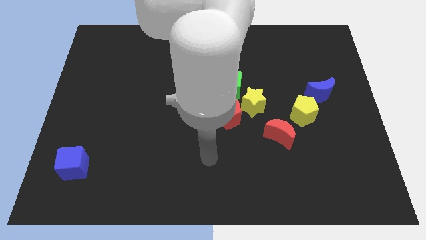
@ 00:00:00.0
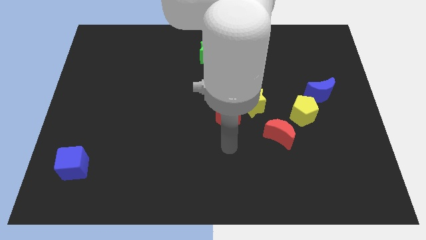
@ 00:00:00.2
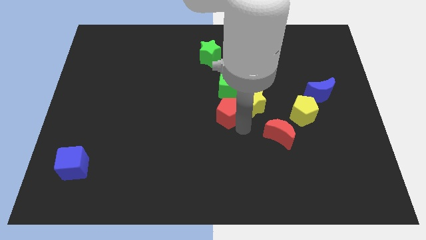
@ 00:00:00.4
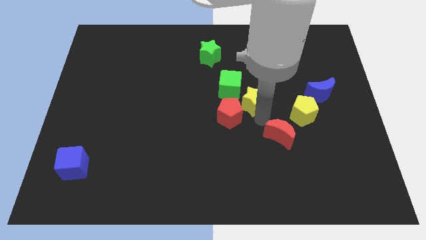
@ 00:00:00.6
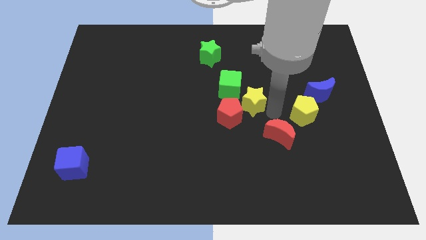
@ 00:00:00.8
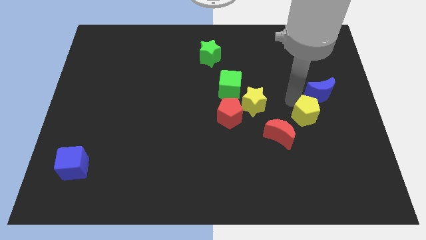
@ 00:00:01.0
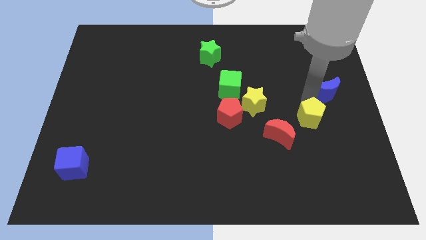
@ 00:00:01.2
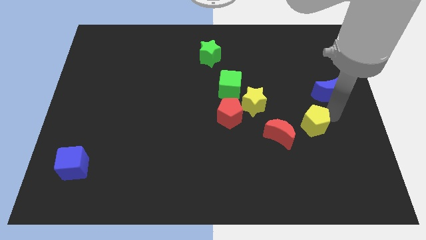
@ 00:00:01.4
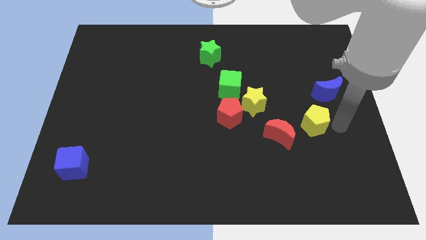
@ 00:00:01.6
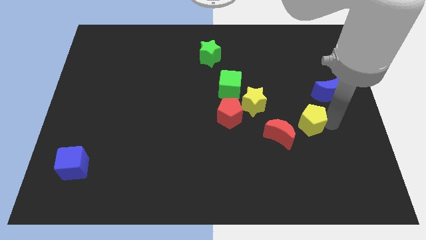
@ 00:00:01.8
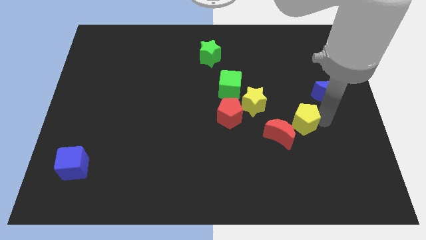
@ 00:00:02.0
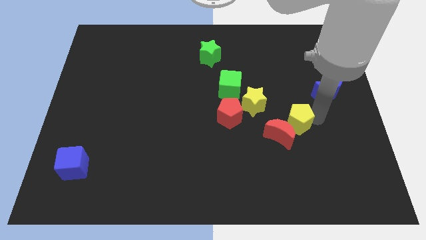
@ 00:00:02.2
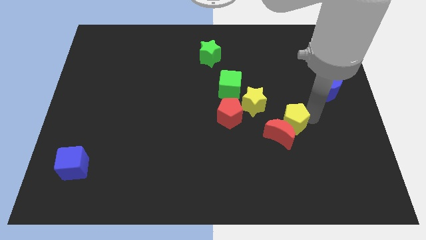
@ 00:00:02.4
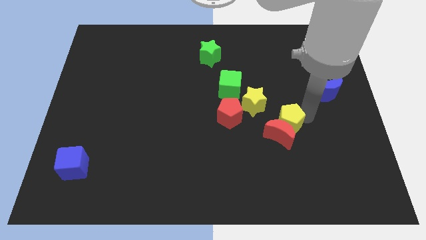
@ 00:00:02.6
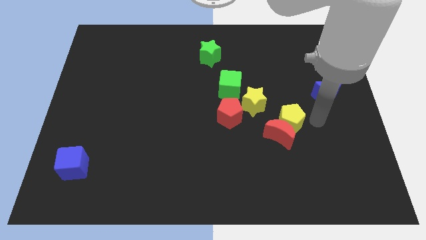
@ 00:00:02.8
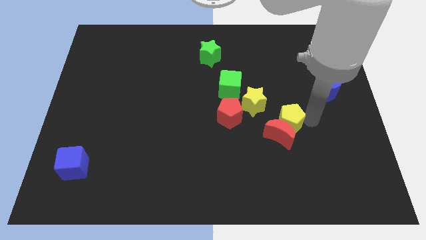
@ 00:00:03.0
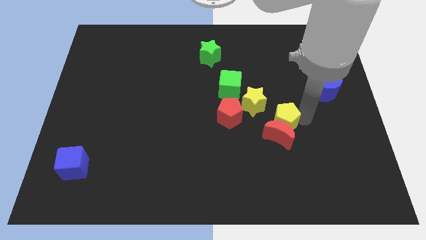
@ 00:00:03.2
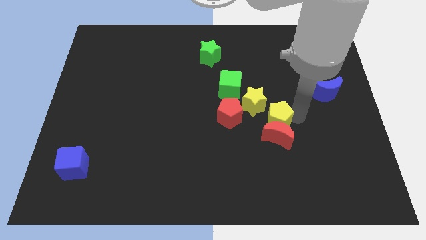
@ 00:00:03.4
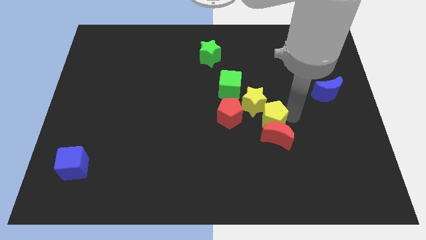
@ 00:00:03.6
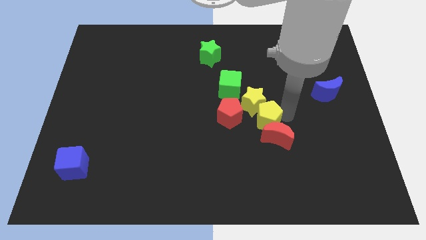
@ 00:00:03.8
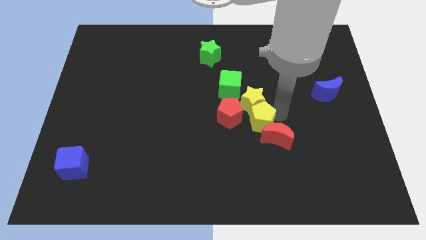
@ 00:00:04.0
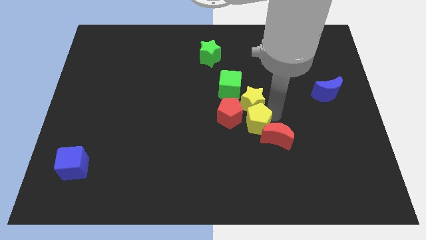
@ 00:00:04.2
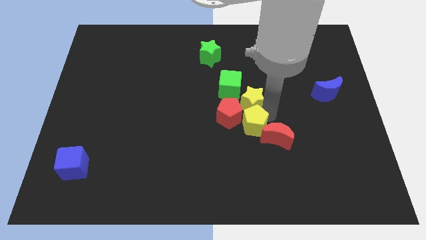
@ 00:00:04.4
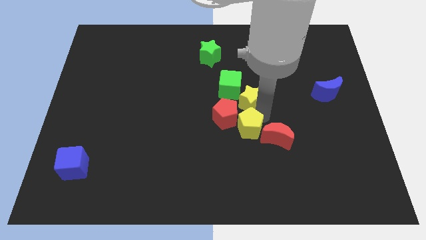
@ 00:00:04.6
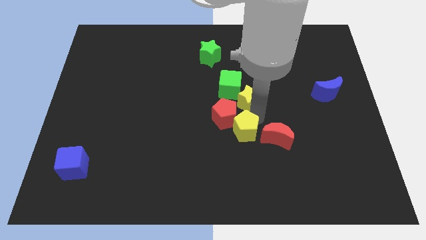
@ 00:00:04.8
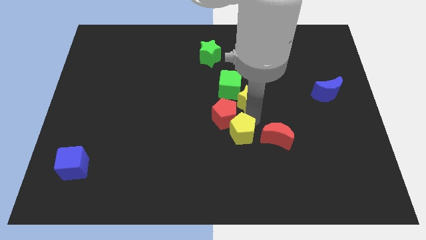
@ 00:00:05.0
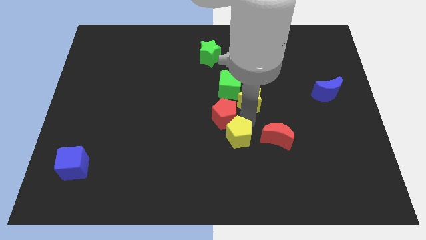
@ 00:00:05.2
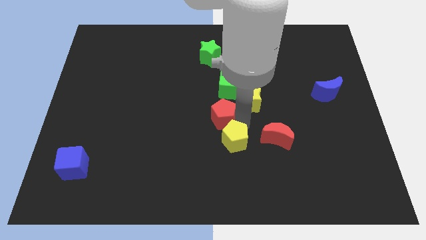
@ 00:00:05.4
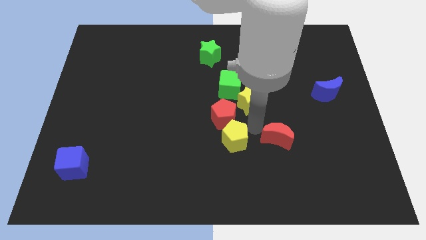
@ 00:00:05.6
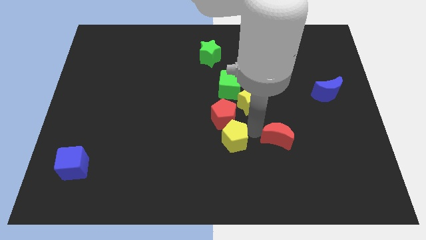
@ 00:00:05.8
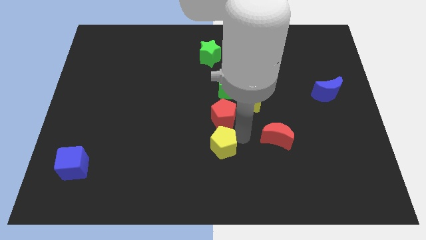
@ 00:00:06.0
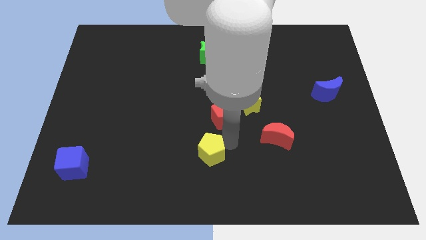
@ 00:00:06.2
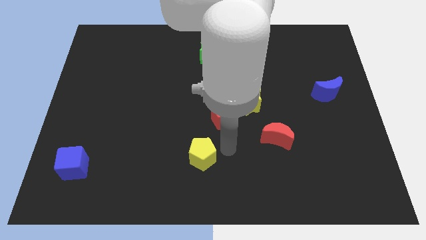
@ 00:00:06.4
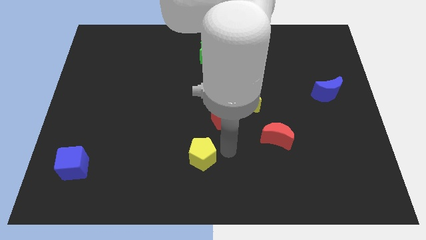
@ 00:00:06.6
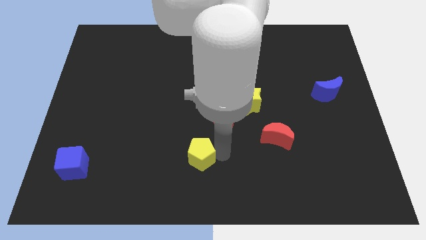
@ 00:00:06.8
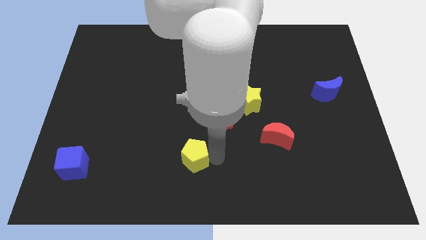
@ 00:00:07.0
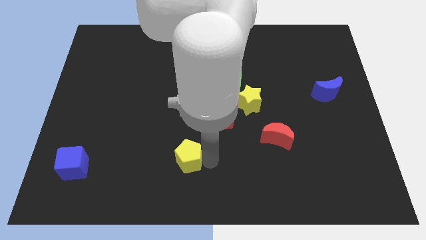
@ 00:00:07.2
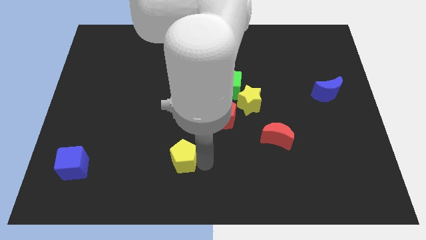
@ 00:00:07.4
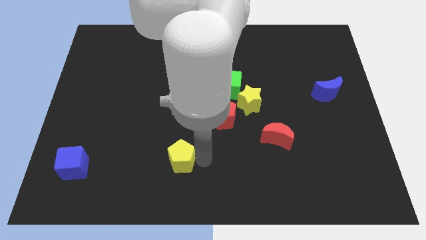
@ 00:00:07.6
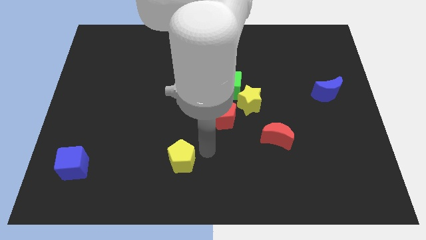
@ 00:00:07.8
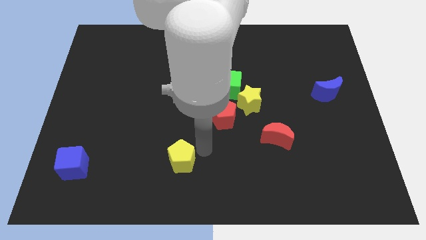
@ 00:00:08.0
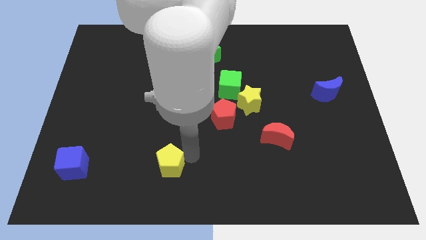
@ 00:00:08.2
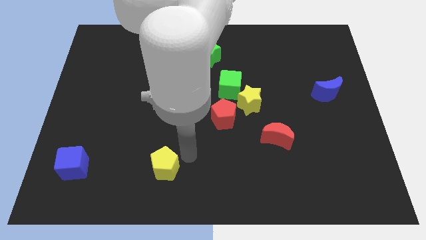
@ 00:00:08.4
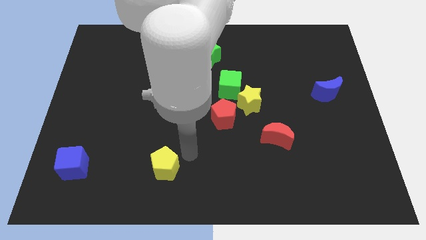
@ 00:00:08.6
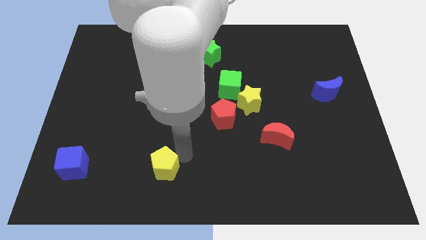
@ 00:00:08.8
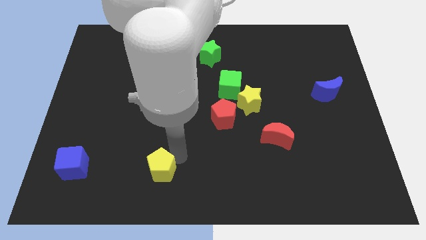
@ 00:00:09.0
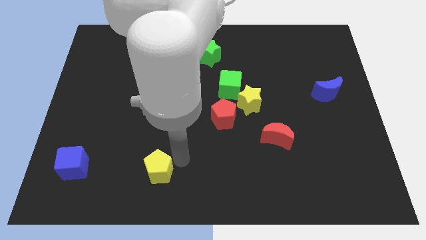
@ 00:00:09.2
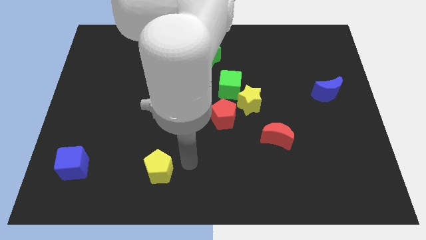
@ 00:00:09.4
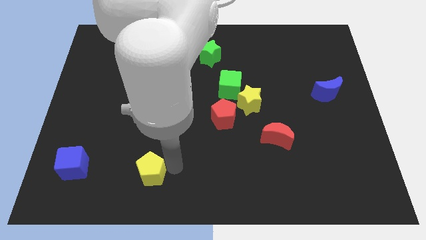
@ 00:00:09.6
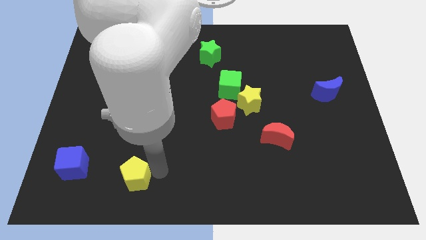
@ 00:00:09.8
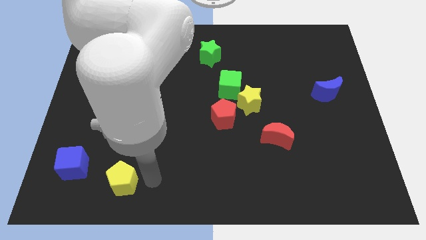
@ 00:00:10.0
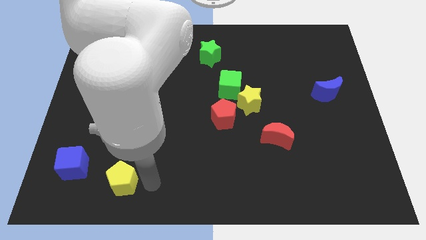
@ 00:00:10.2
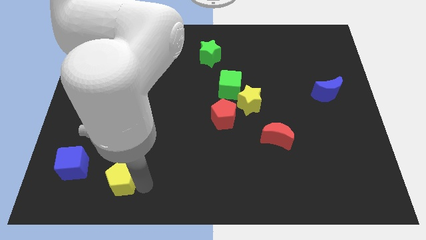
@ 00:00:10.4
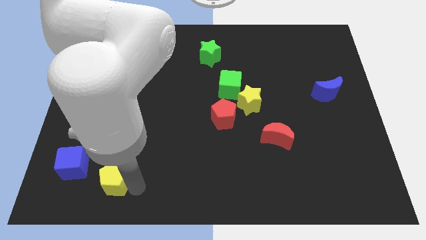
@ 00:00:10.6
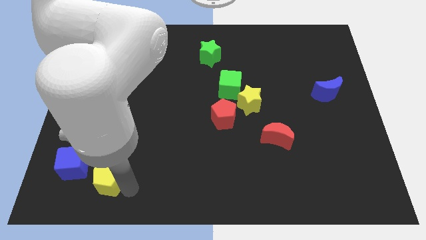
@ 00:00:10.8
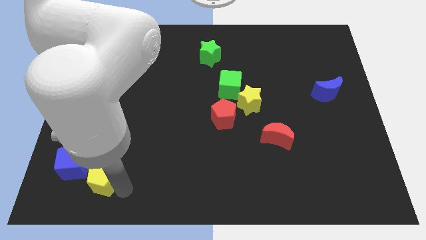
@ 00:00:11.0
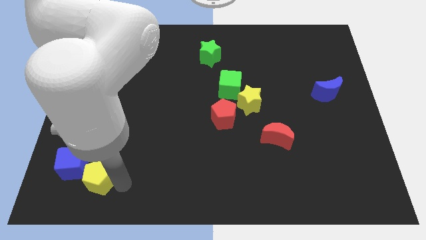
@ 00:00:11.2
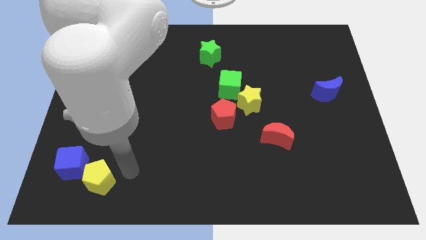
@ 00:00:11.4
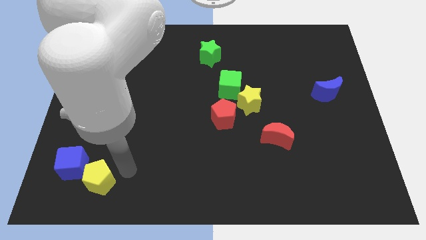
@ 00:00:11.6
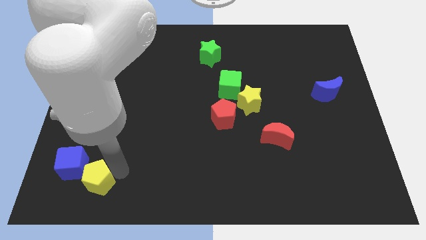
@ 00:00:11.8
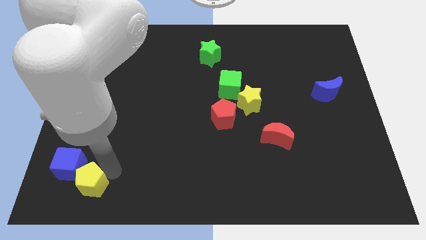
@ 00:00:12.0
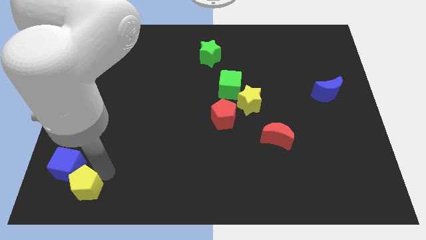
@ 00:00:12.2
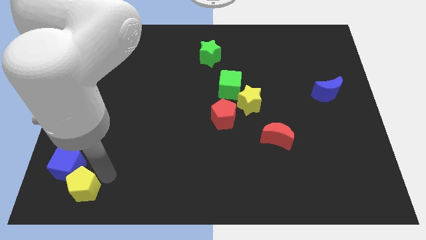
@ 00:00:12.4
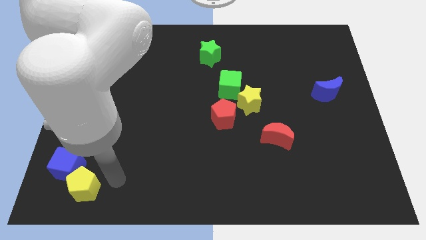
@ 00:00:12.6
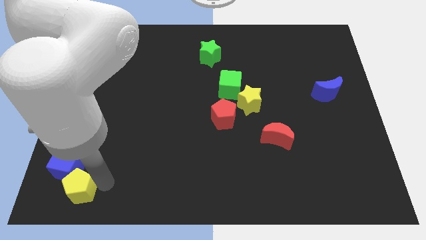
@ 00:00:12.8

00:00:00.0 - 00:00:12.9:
move the yellow pentagon to the bottom left

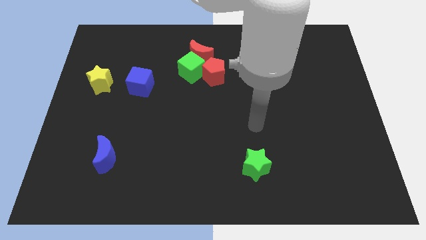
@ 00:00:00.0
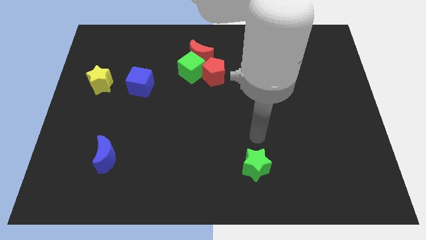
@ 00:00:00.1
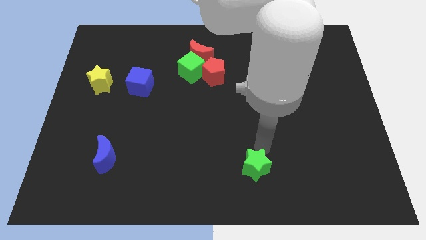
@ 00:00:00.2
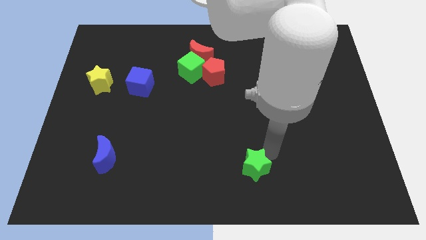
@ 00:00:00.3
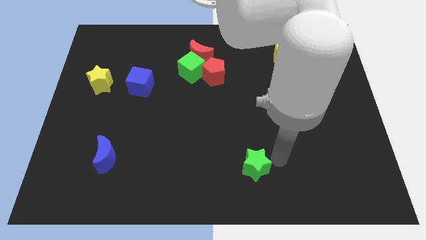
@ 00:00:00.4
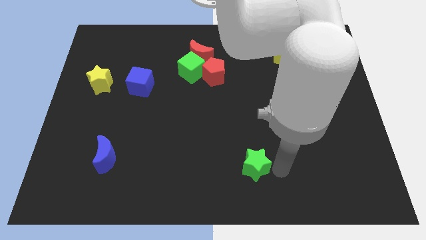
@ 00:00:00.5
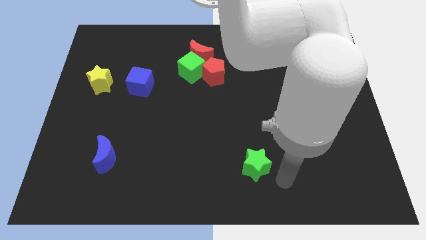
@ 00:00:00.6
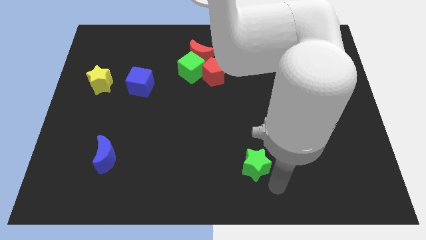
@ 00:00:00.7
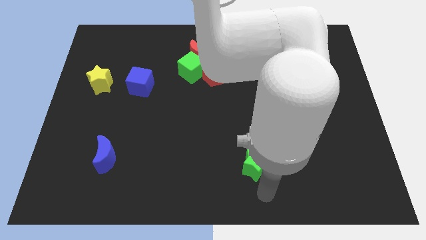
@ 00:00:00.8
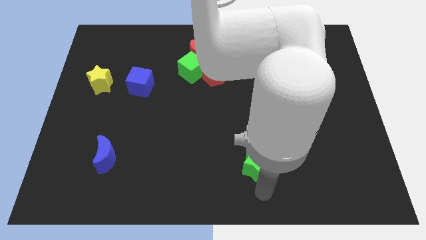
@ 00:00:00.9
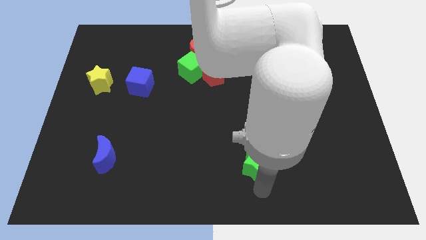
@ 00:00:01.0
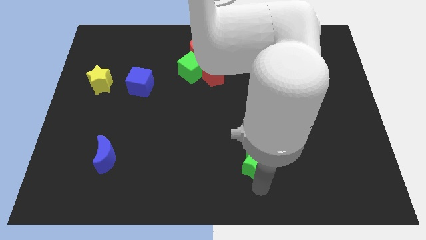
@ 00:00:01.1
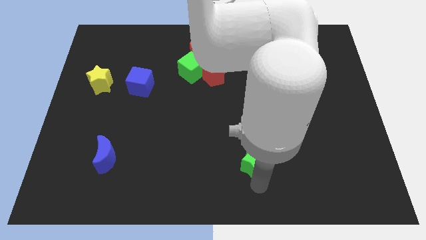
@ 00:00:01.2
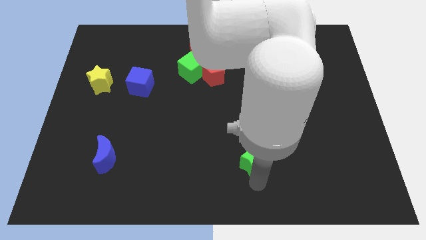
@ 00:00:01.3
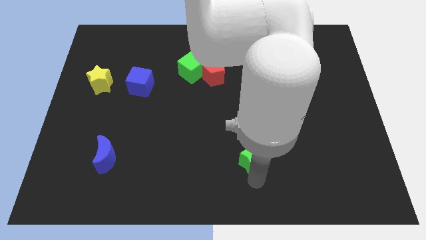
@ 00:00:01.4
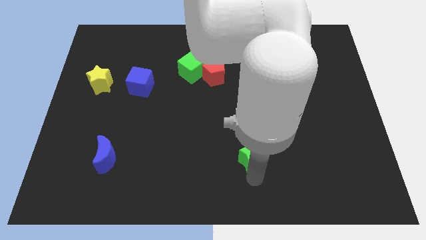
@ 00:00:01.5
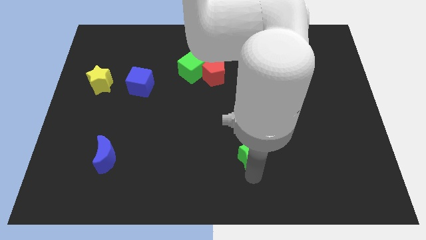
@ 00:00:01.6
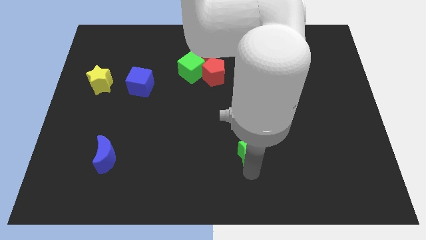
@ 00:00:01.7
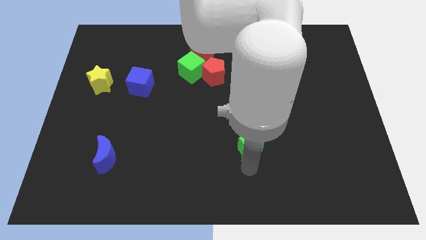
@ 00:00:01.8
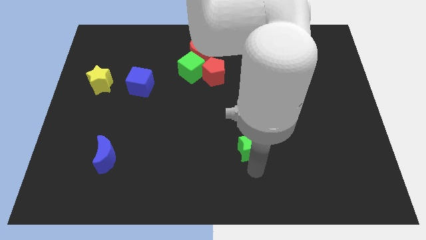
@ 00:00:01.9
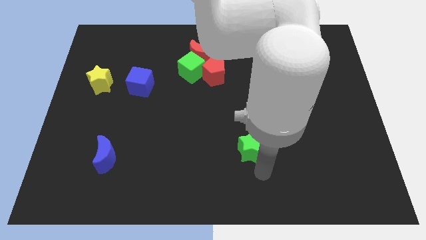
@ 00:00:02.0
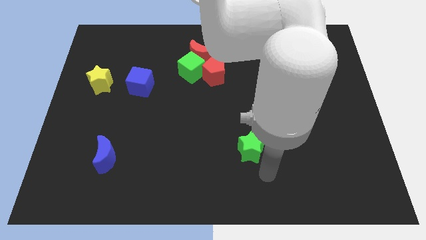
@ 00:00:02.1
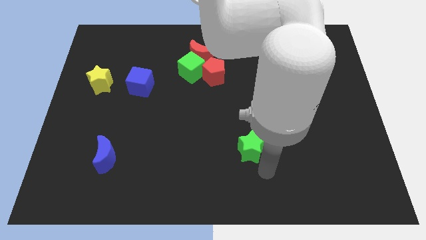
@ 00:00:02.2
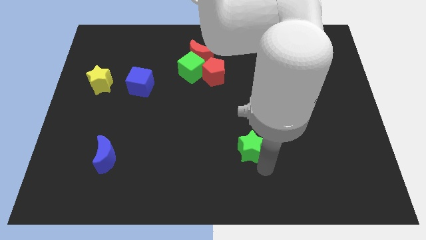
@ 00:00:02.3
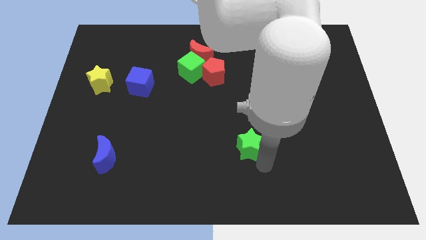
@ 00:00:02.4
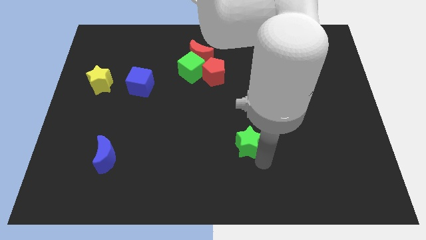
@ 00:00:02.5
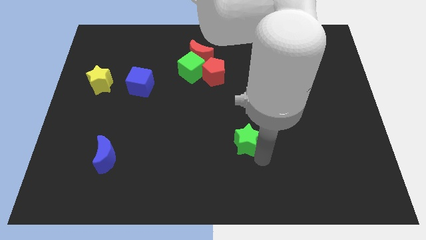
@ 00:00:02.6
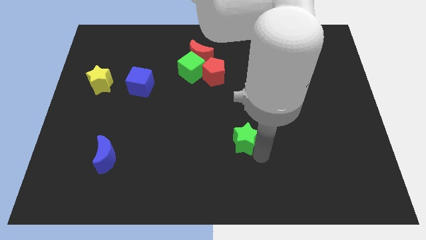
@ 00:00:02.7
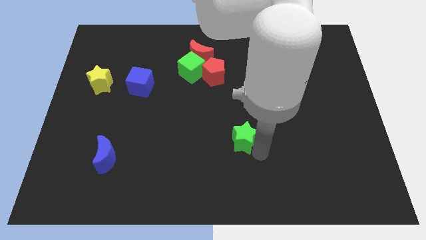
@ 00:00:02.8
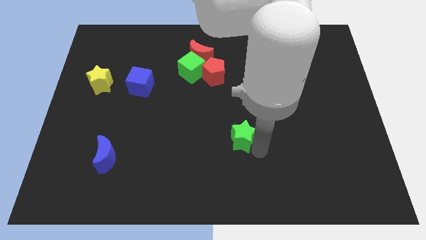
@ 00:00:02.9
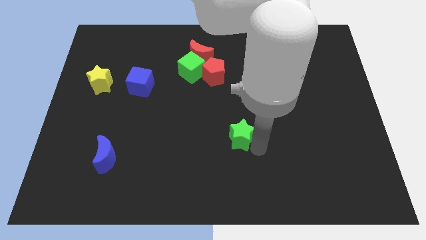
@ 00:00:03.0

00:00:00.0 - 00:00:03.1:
move the green star to the middle
